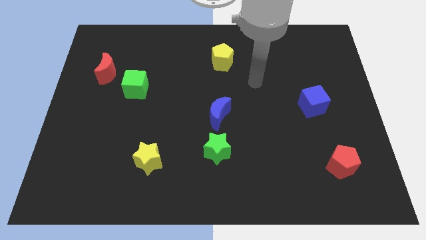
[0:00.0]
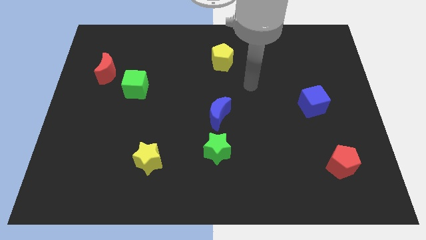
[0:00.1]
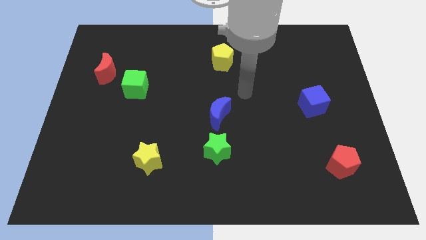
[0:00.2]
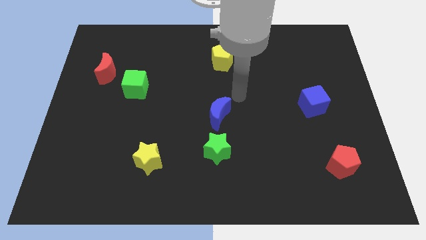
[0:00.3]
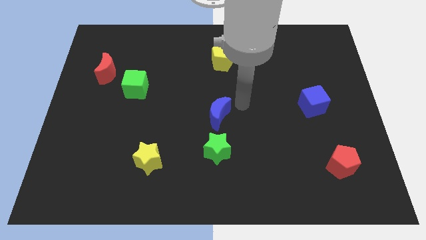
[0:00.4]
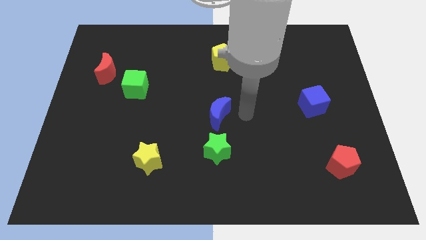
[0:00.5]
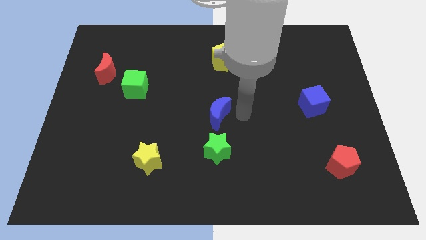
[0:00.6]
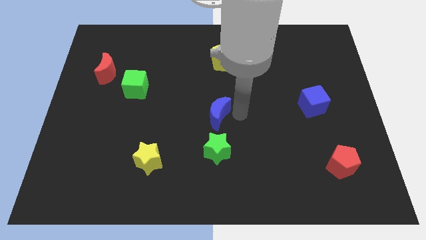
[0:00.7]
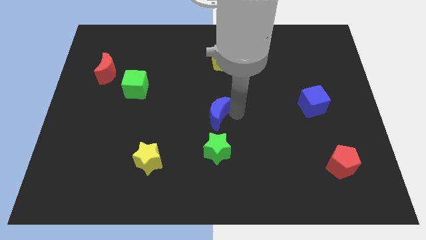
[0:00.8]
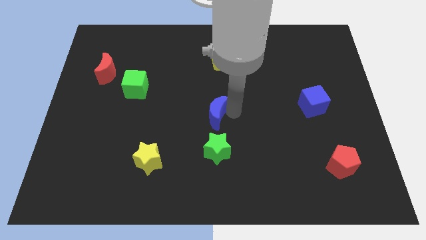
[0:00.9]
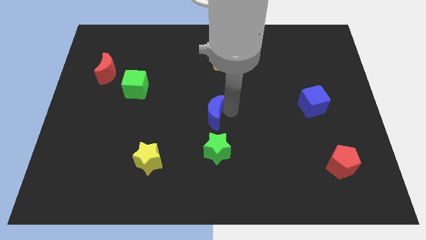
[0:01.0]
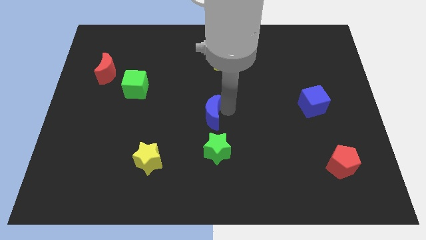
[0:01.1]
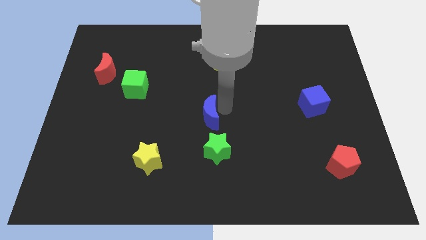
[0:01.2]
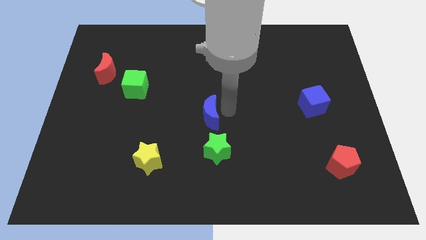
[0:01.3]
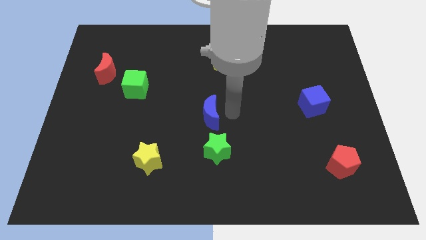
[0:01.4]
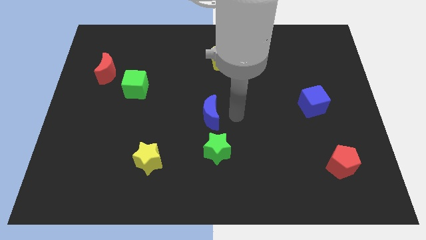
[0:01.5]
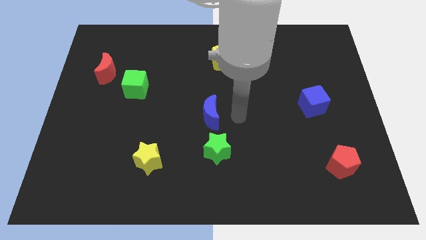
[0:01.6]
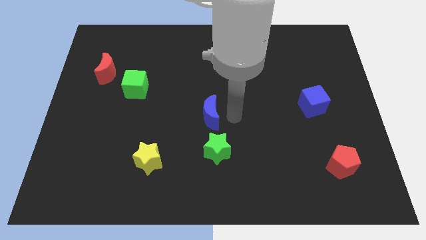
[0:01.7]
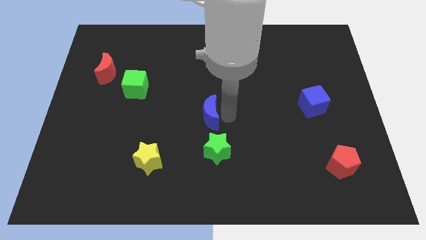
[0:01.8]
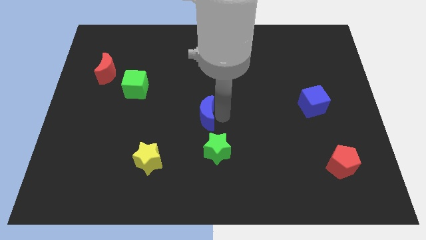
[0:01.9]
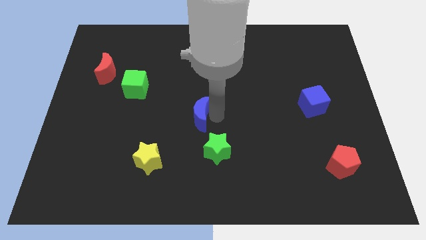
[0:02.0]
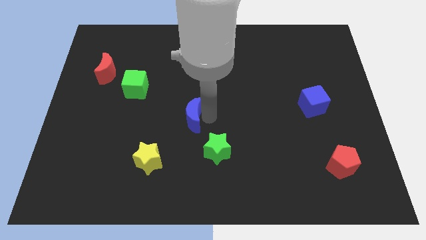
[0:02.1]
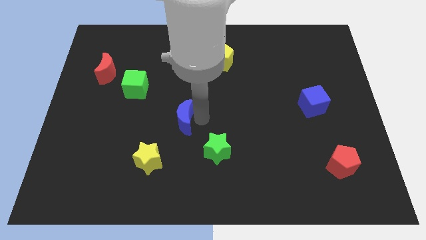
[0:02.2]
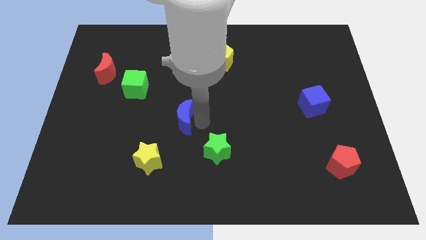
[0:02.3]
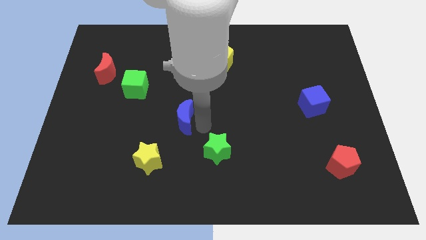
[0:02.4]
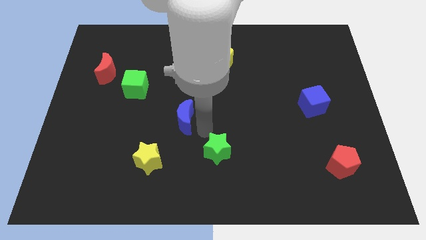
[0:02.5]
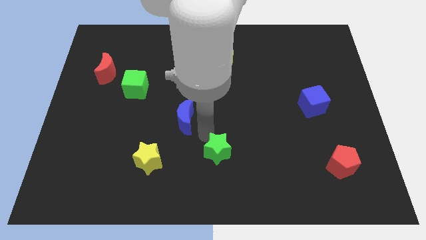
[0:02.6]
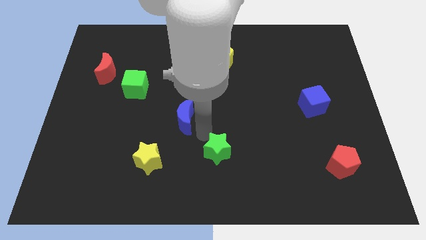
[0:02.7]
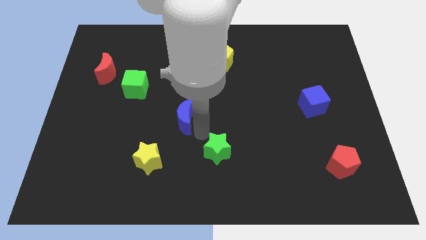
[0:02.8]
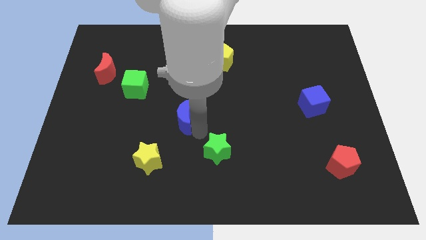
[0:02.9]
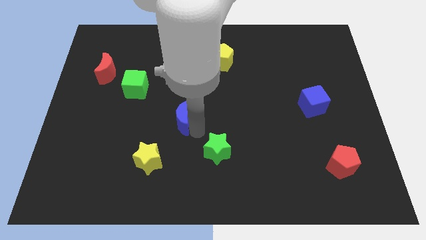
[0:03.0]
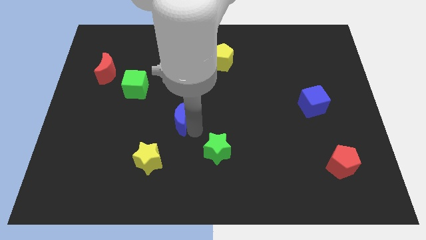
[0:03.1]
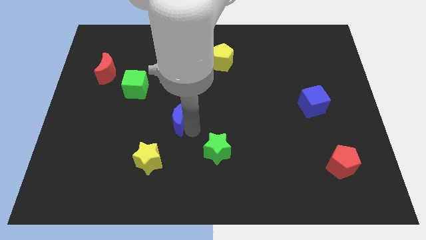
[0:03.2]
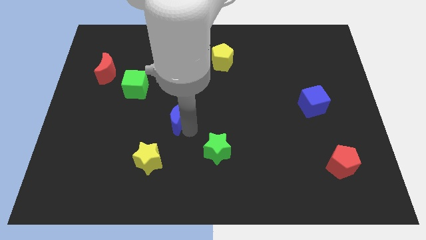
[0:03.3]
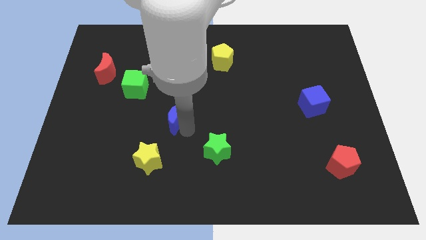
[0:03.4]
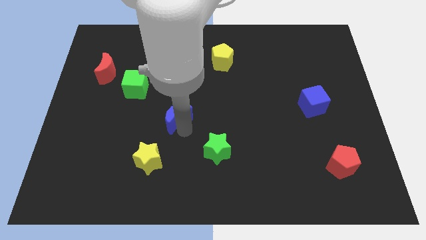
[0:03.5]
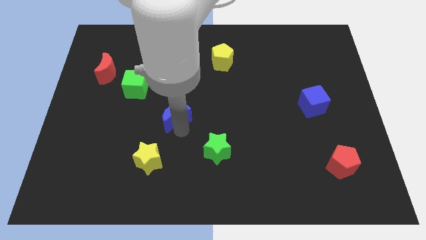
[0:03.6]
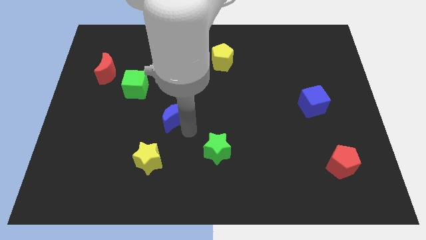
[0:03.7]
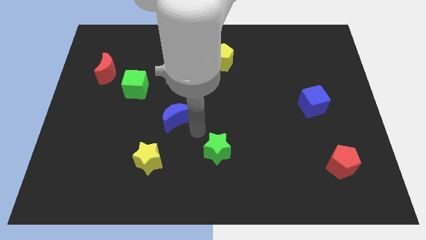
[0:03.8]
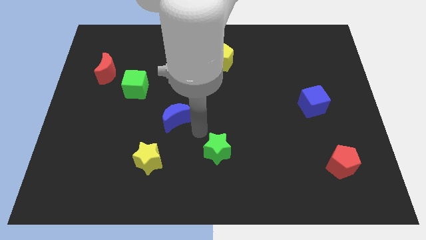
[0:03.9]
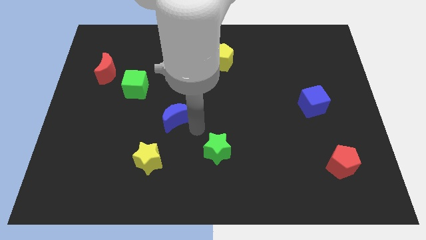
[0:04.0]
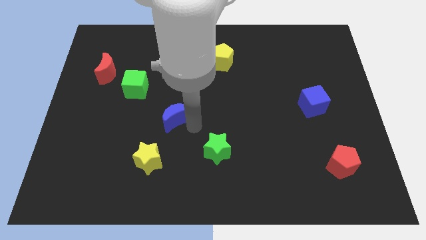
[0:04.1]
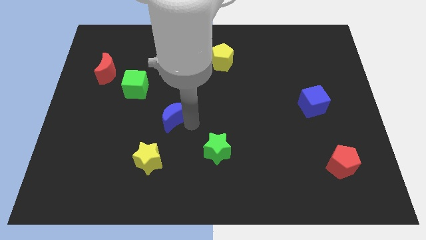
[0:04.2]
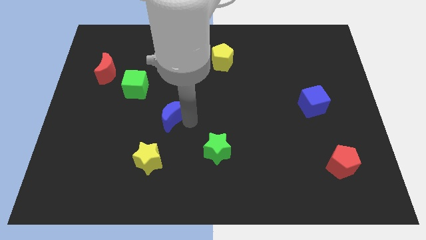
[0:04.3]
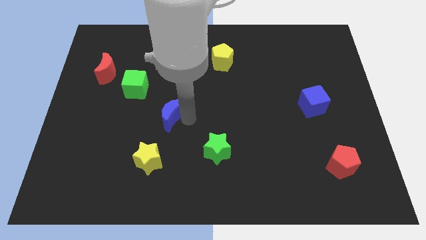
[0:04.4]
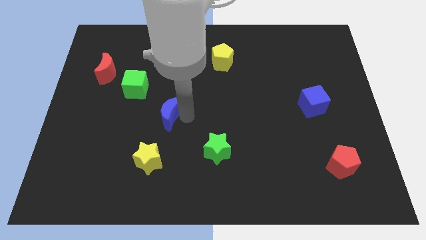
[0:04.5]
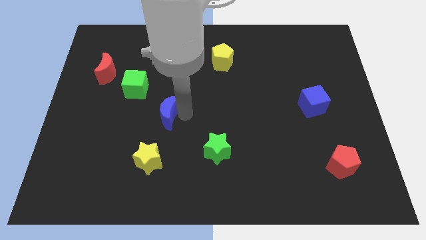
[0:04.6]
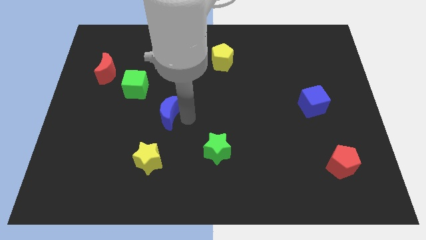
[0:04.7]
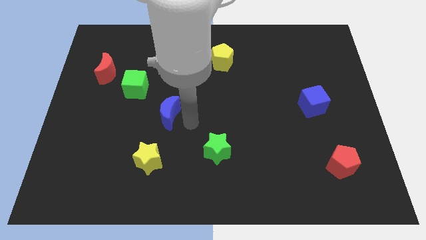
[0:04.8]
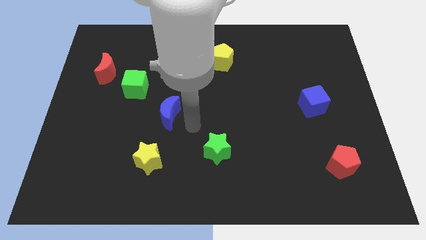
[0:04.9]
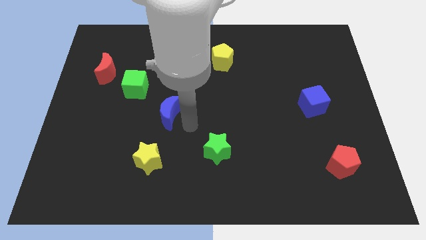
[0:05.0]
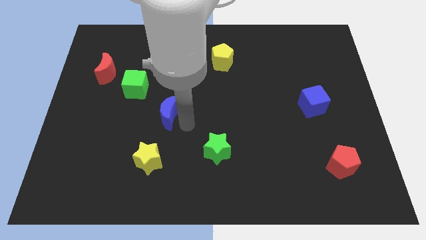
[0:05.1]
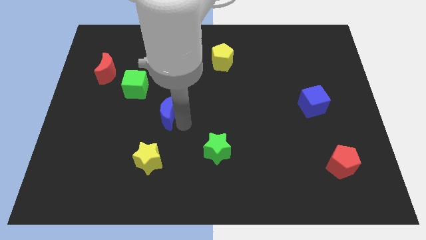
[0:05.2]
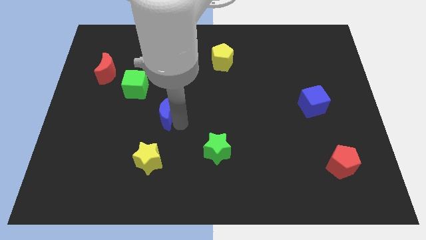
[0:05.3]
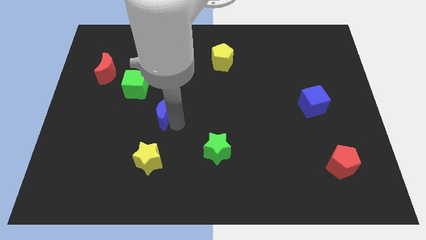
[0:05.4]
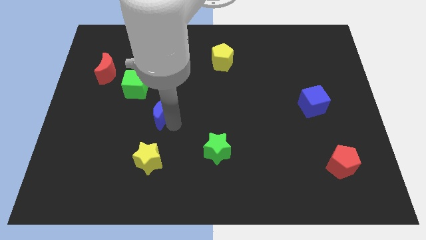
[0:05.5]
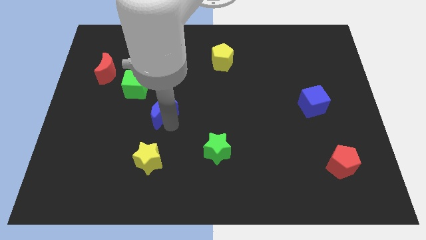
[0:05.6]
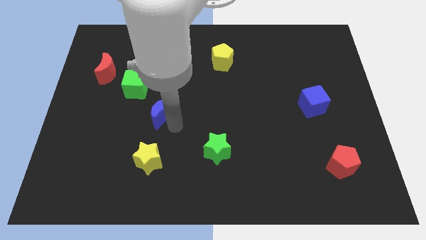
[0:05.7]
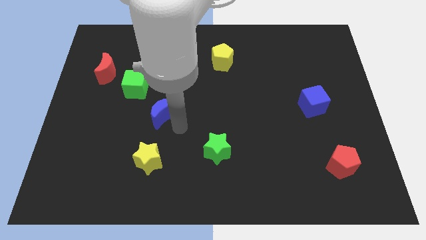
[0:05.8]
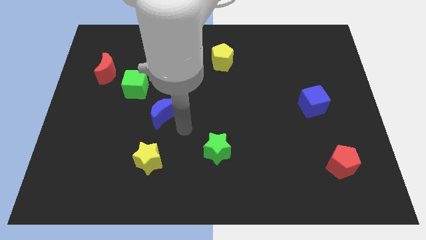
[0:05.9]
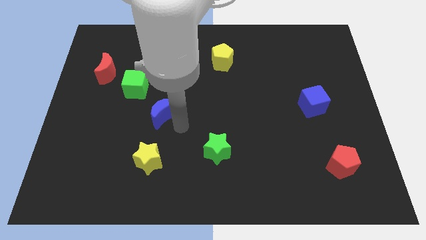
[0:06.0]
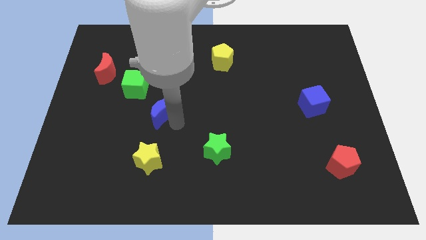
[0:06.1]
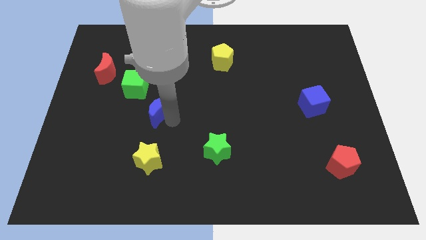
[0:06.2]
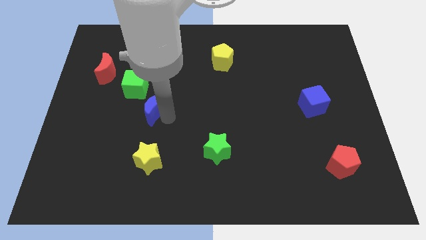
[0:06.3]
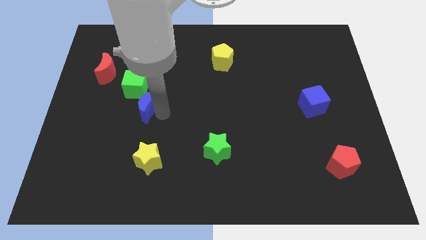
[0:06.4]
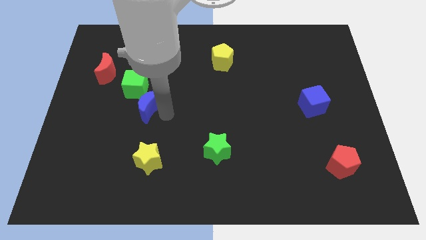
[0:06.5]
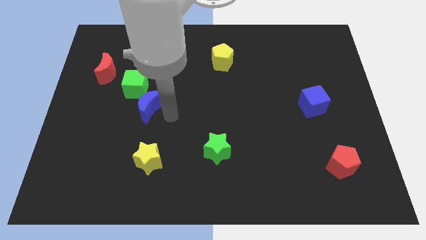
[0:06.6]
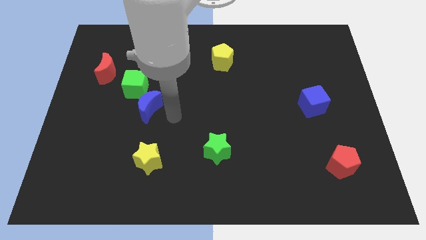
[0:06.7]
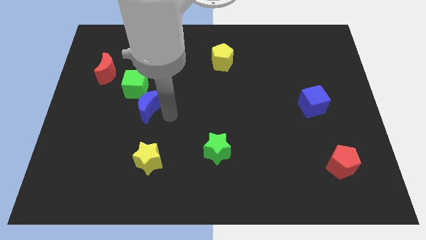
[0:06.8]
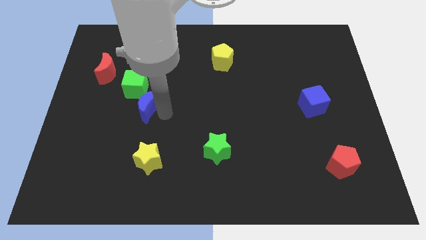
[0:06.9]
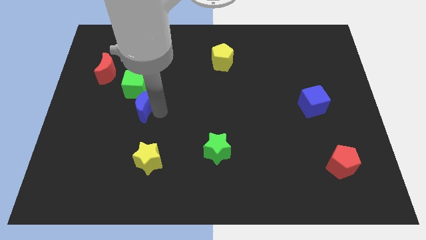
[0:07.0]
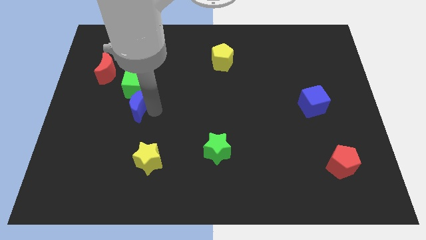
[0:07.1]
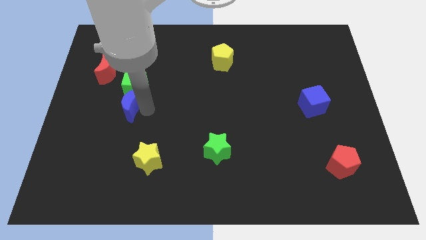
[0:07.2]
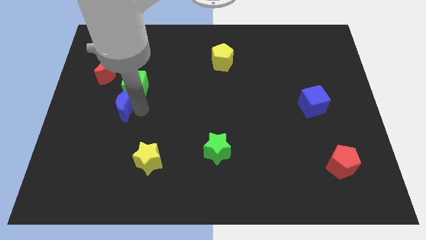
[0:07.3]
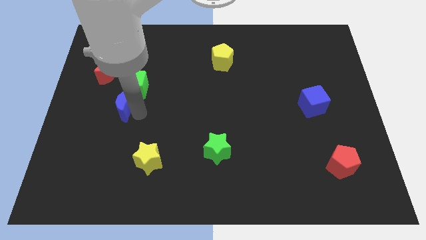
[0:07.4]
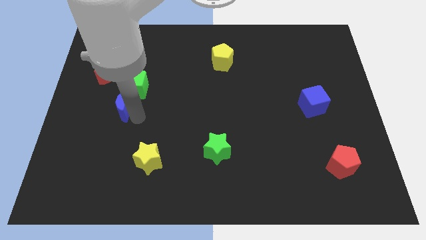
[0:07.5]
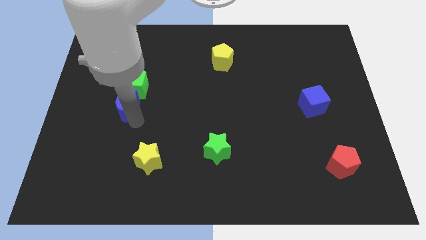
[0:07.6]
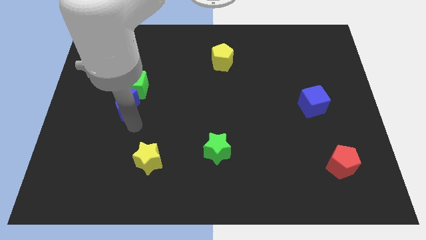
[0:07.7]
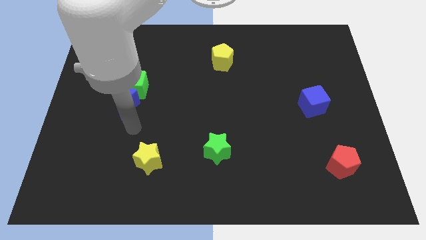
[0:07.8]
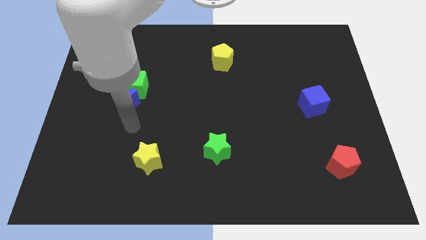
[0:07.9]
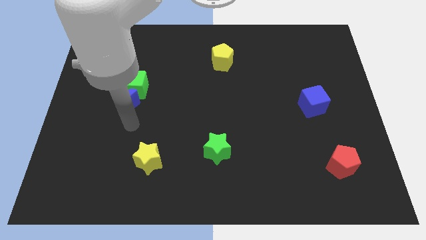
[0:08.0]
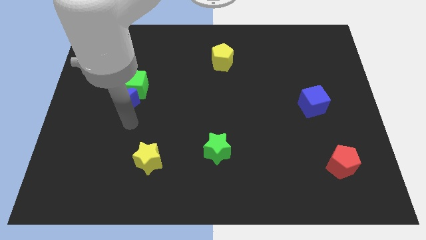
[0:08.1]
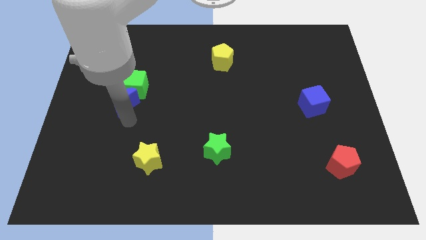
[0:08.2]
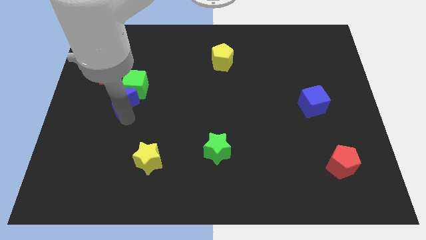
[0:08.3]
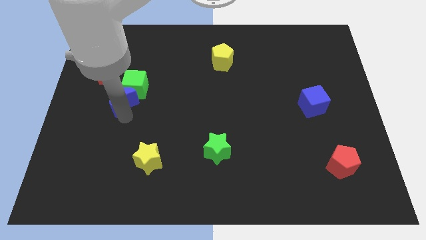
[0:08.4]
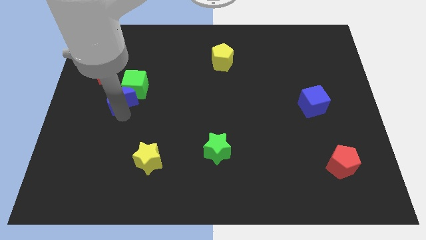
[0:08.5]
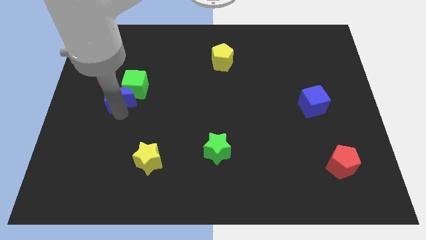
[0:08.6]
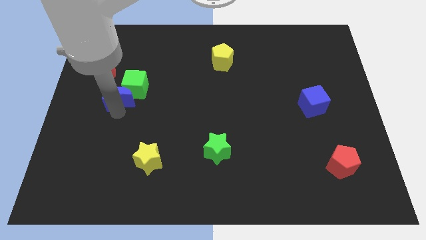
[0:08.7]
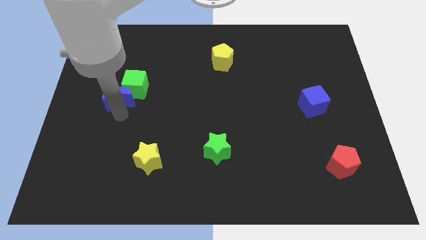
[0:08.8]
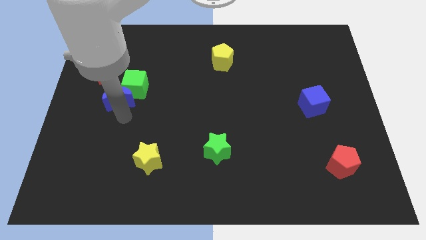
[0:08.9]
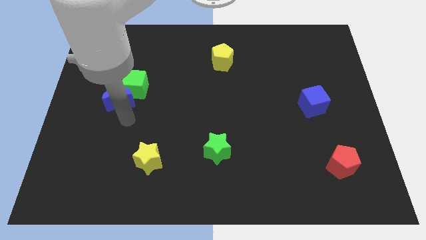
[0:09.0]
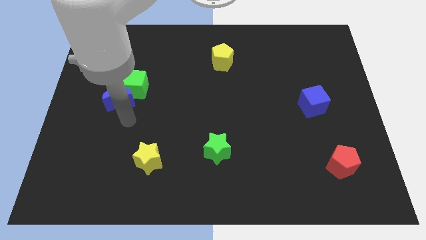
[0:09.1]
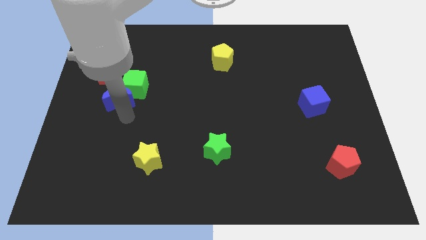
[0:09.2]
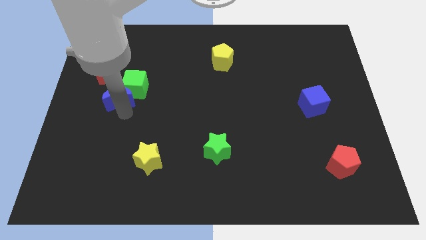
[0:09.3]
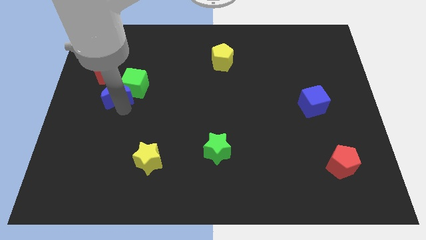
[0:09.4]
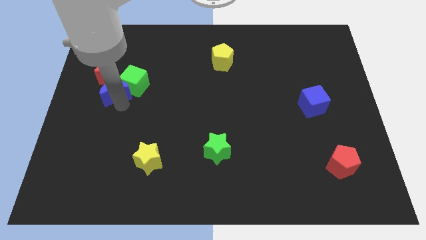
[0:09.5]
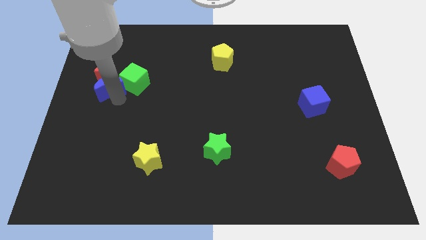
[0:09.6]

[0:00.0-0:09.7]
slide the blue moon to the red moon
